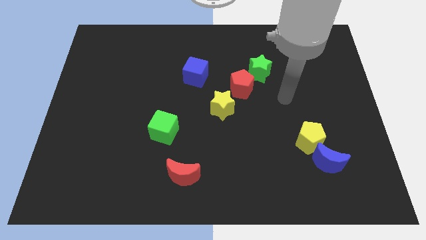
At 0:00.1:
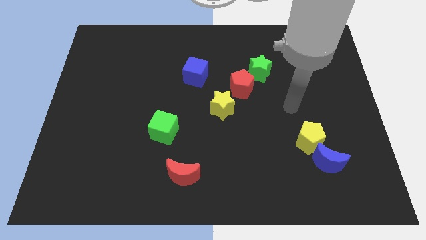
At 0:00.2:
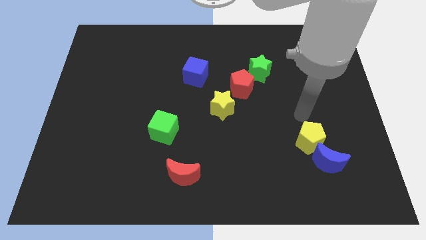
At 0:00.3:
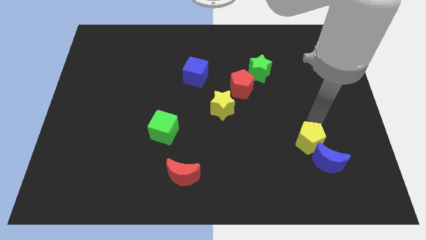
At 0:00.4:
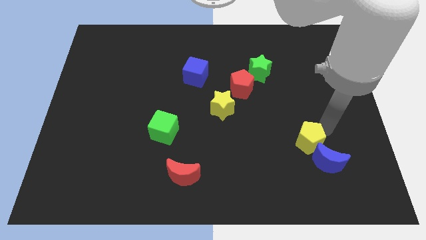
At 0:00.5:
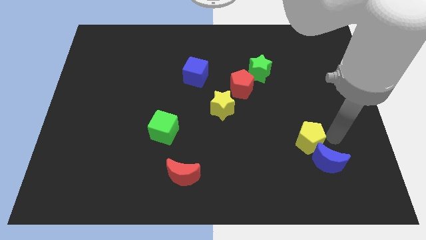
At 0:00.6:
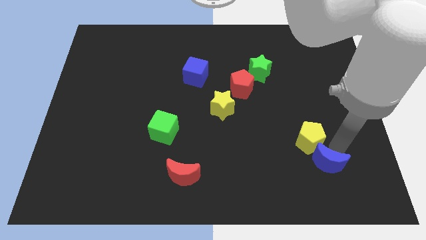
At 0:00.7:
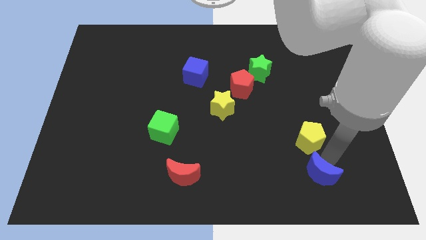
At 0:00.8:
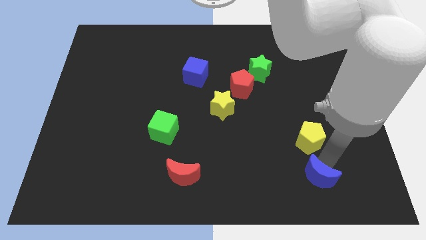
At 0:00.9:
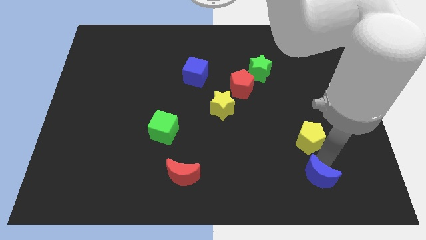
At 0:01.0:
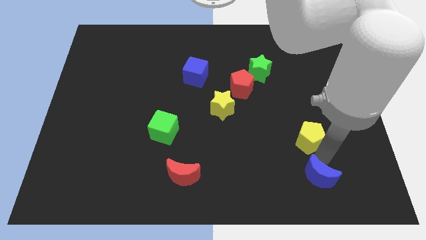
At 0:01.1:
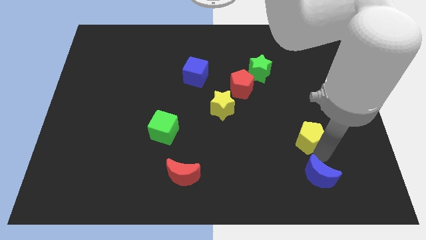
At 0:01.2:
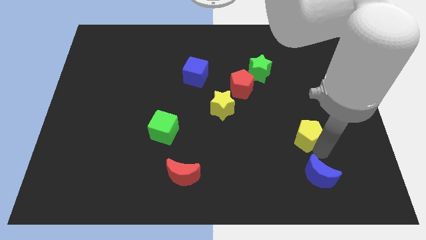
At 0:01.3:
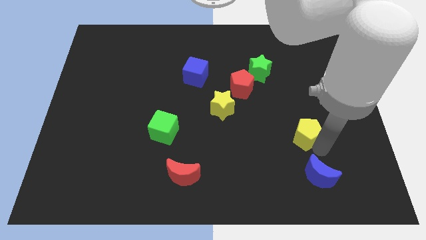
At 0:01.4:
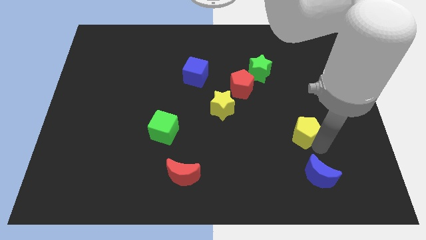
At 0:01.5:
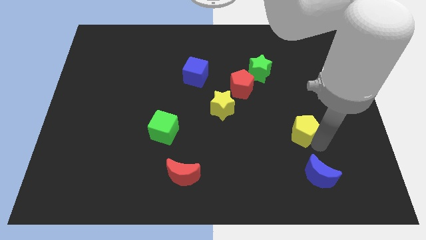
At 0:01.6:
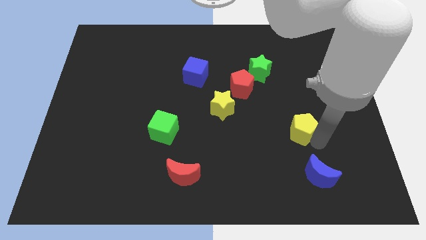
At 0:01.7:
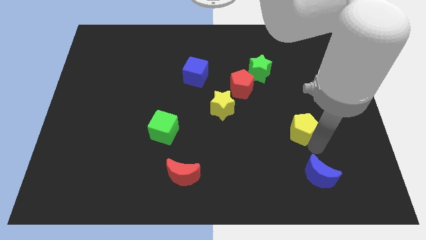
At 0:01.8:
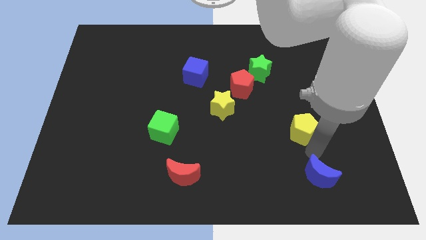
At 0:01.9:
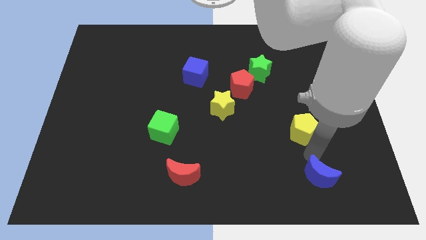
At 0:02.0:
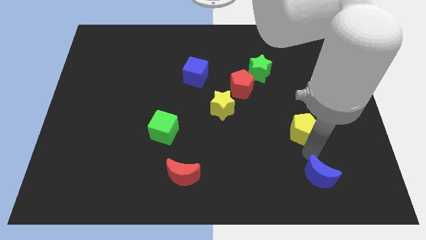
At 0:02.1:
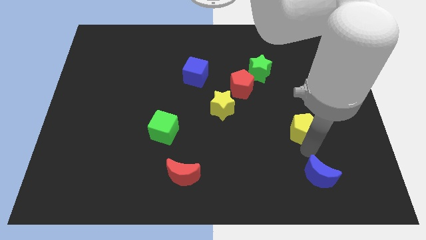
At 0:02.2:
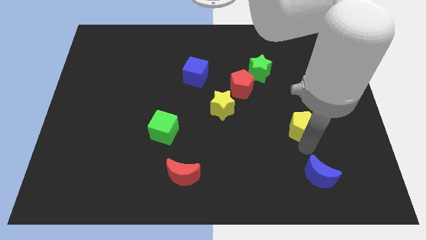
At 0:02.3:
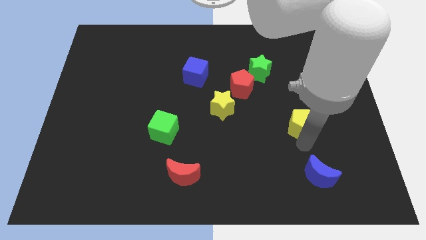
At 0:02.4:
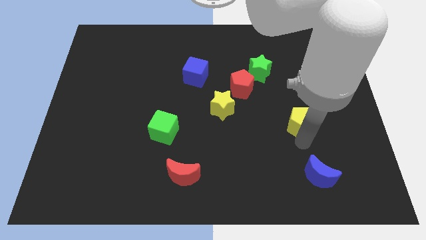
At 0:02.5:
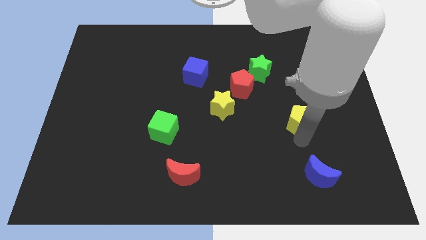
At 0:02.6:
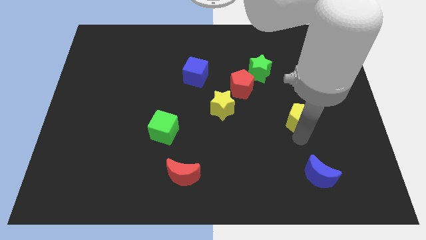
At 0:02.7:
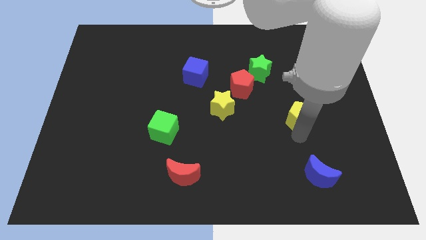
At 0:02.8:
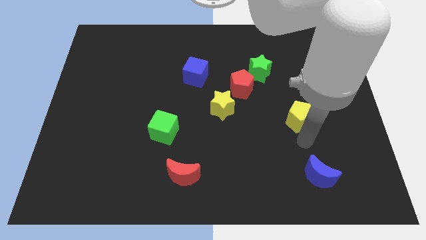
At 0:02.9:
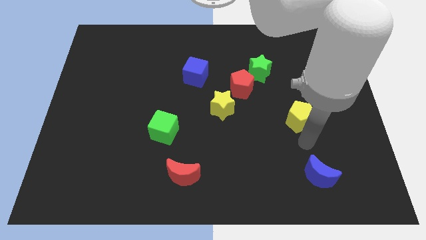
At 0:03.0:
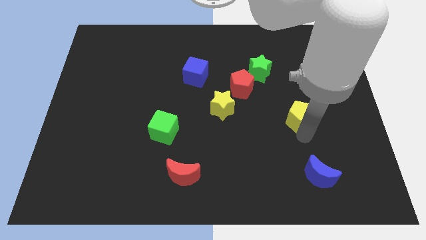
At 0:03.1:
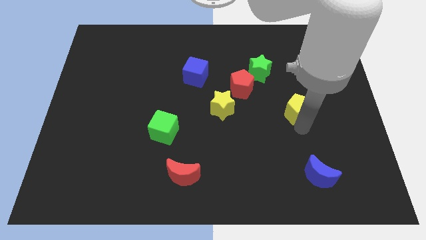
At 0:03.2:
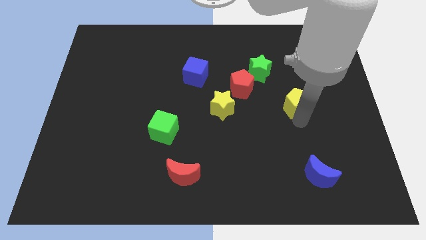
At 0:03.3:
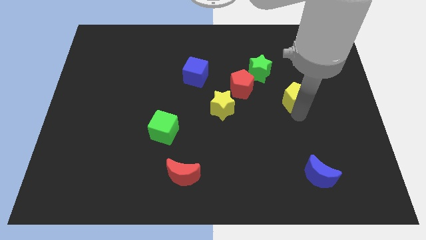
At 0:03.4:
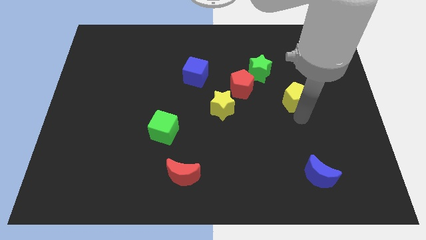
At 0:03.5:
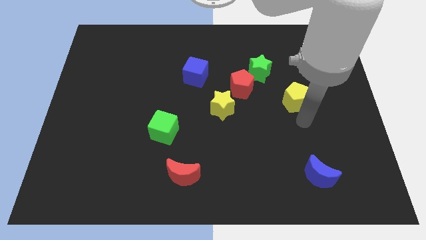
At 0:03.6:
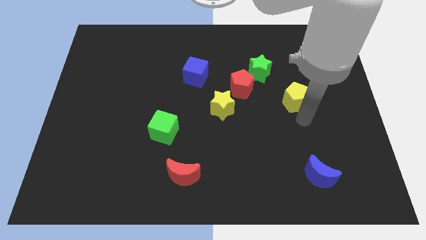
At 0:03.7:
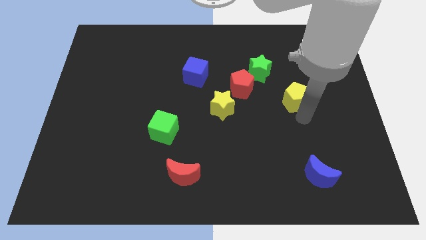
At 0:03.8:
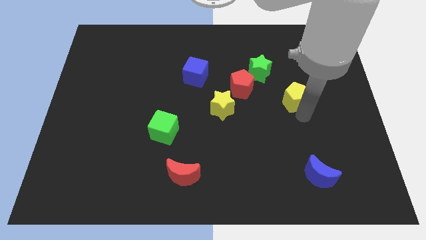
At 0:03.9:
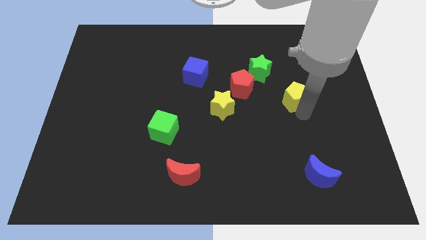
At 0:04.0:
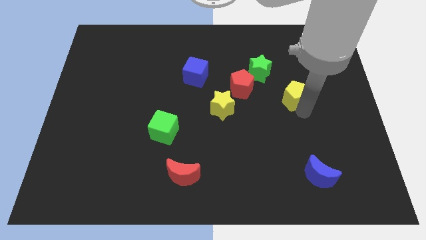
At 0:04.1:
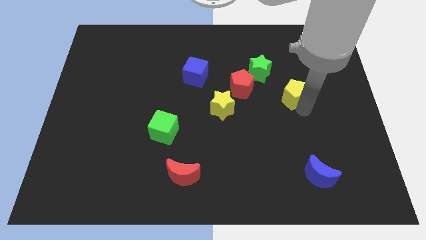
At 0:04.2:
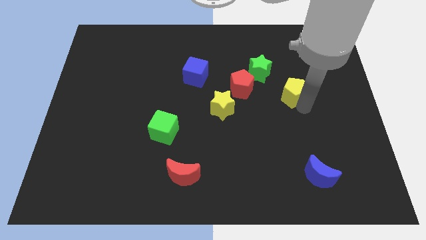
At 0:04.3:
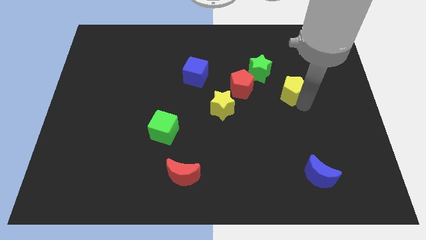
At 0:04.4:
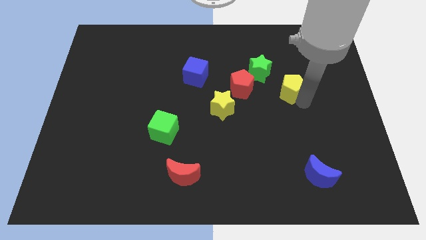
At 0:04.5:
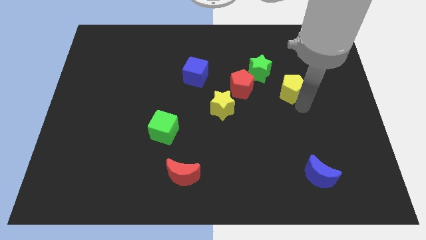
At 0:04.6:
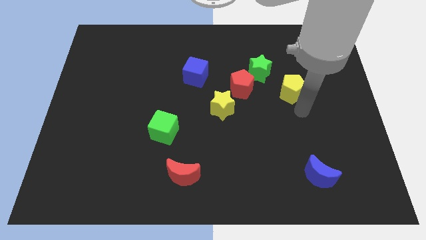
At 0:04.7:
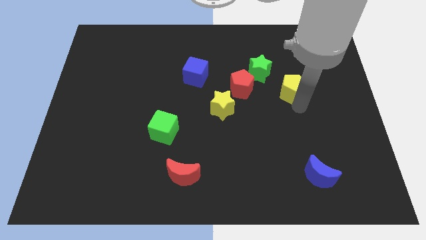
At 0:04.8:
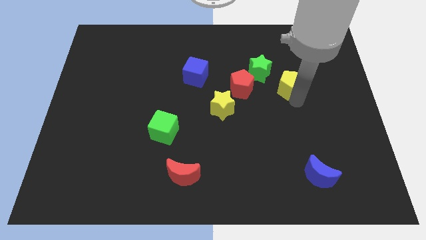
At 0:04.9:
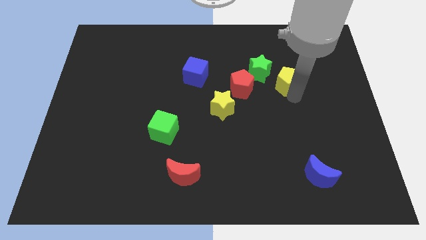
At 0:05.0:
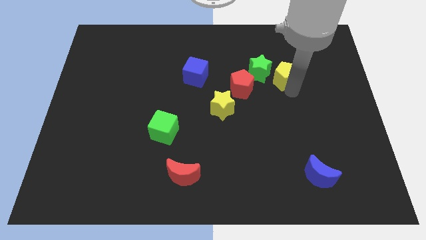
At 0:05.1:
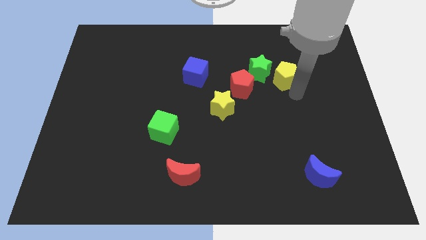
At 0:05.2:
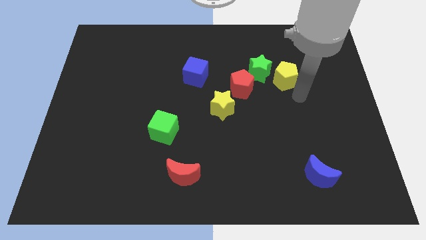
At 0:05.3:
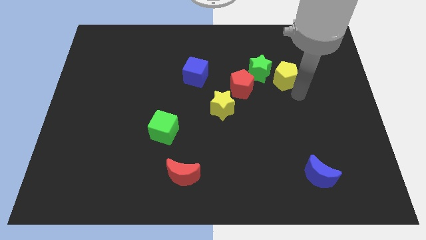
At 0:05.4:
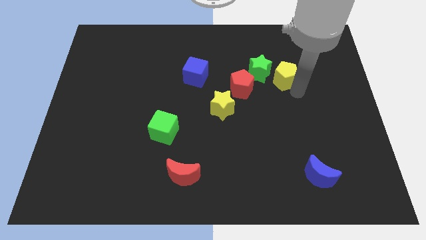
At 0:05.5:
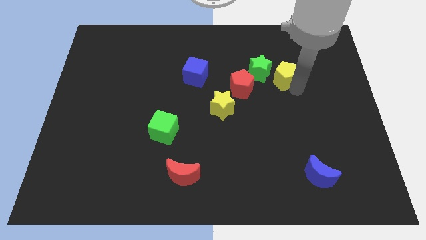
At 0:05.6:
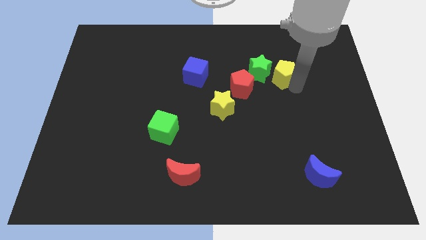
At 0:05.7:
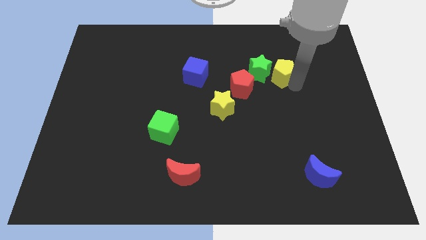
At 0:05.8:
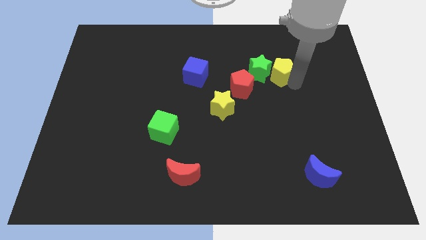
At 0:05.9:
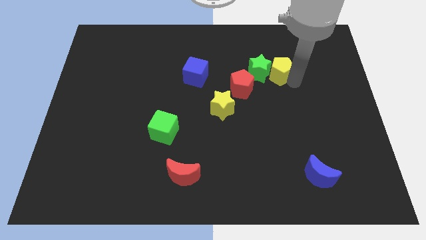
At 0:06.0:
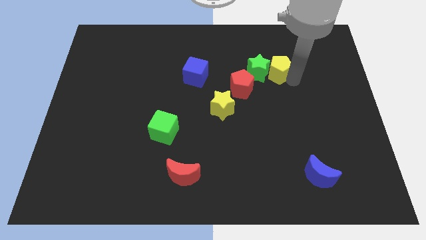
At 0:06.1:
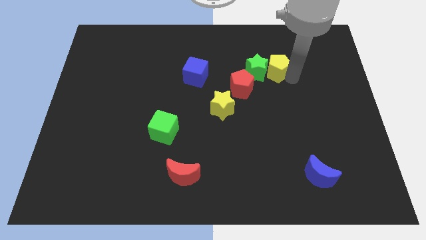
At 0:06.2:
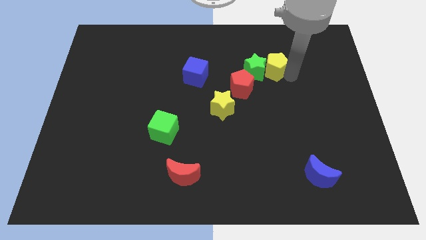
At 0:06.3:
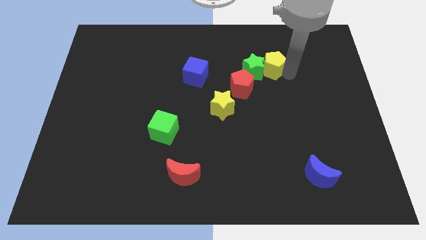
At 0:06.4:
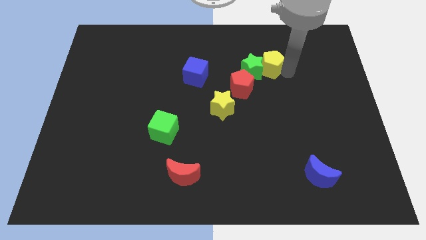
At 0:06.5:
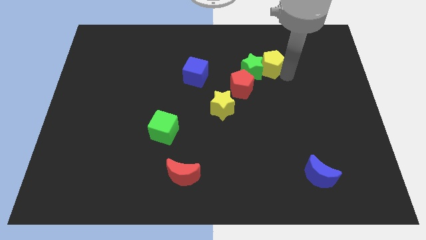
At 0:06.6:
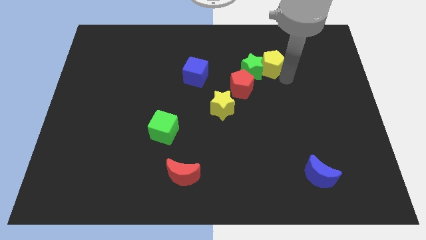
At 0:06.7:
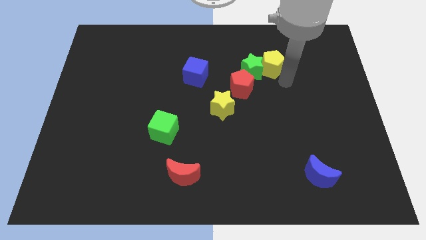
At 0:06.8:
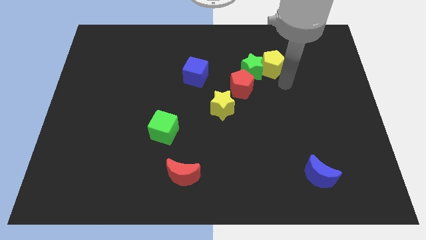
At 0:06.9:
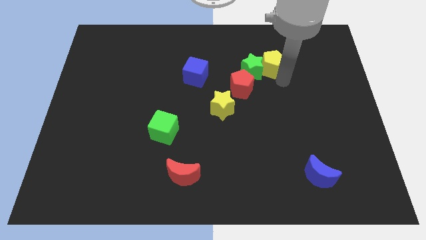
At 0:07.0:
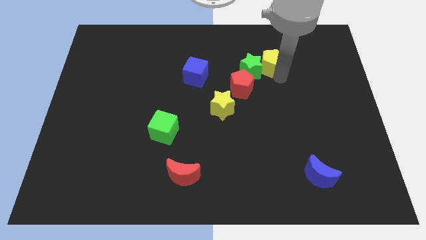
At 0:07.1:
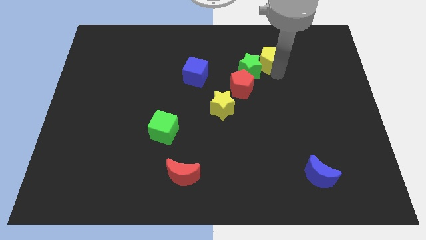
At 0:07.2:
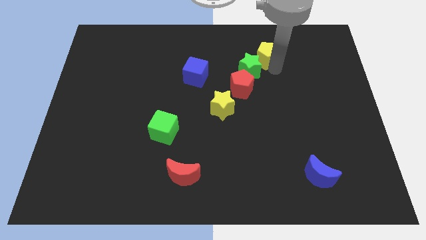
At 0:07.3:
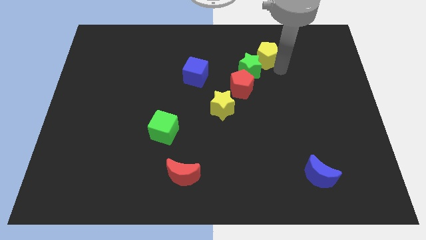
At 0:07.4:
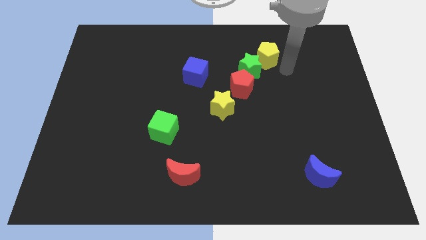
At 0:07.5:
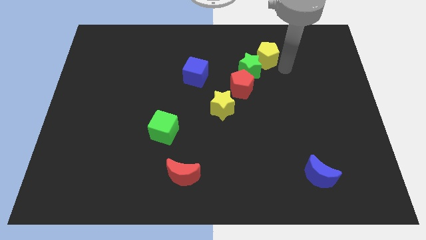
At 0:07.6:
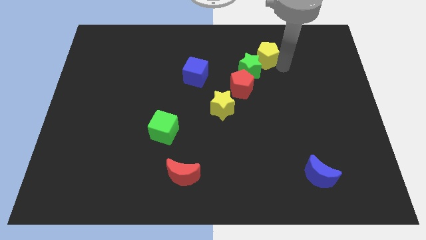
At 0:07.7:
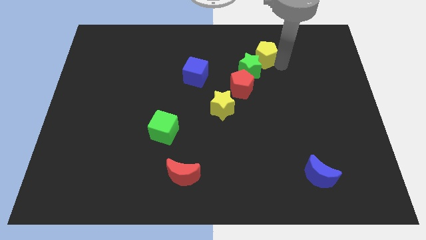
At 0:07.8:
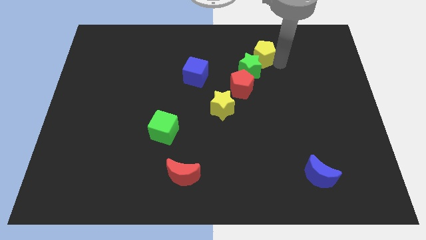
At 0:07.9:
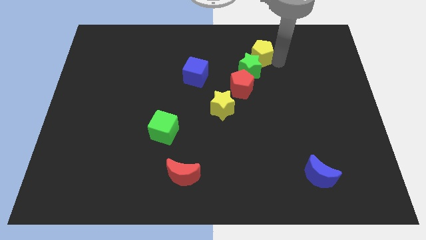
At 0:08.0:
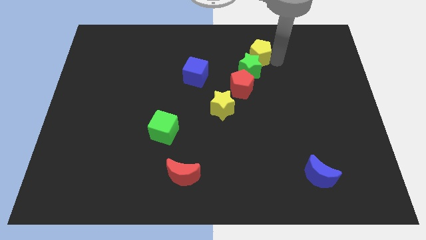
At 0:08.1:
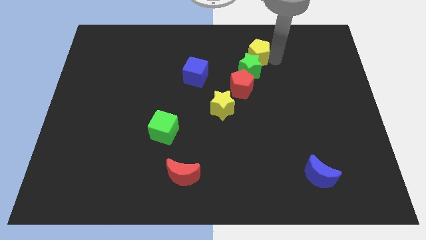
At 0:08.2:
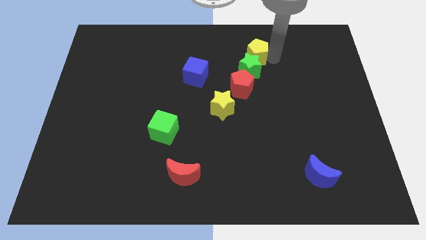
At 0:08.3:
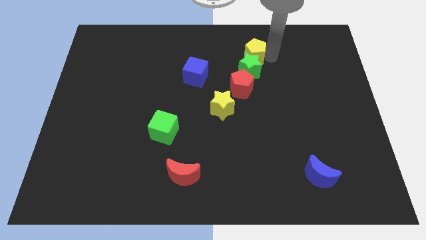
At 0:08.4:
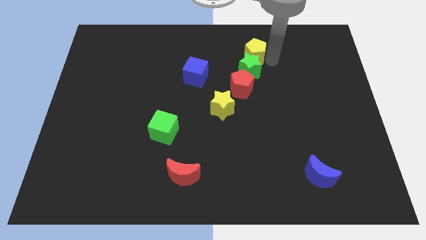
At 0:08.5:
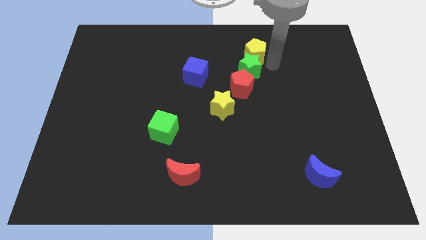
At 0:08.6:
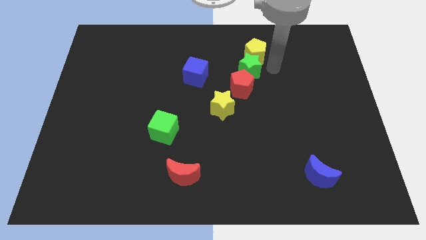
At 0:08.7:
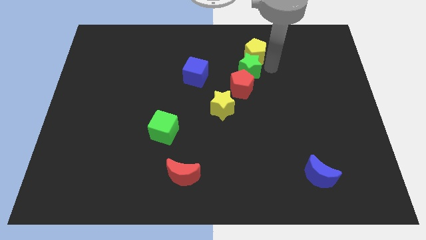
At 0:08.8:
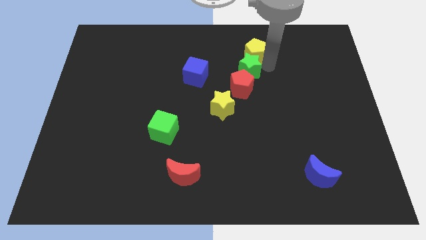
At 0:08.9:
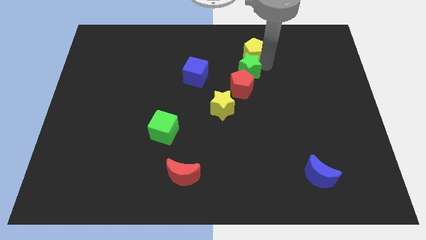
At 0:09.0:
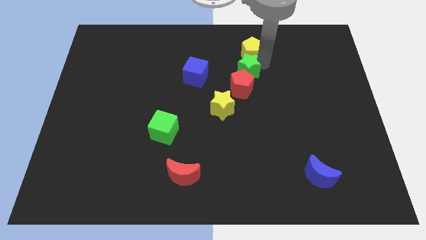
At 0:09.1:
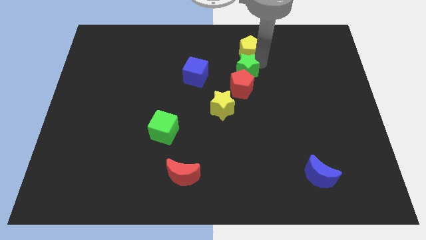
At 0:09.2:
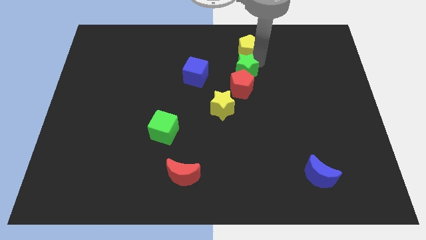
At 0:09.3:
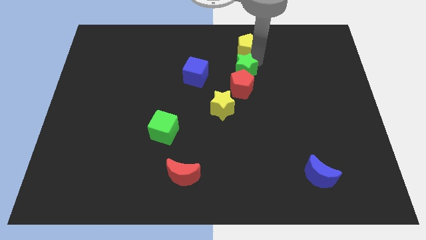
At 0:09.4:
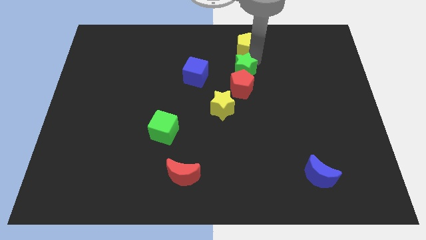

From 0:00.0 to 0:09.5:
slide the yellow pentagon to the top side
